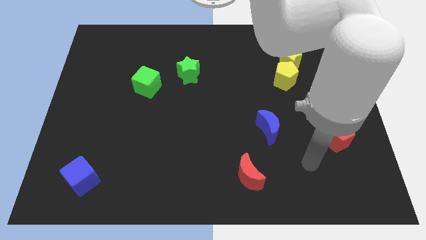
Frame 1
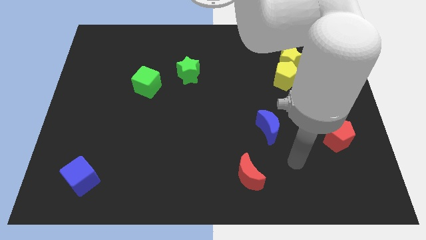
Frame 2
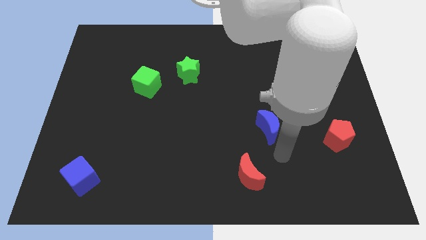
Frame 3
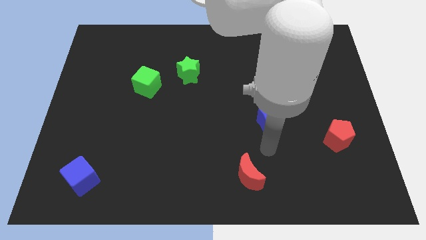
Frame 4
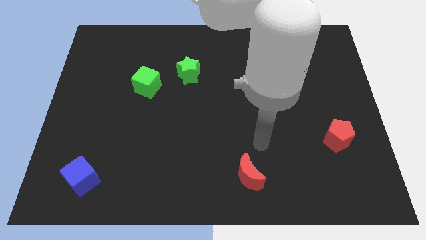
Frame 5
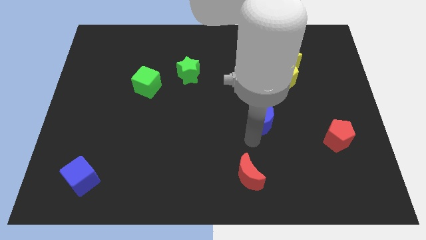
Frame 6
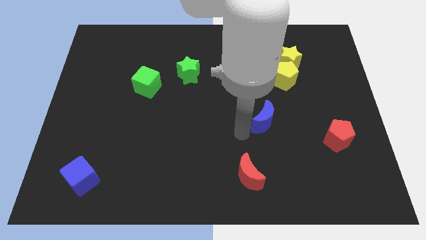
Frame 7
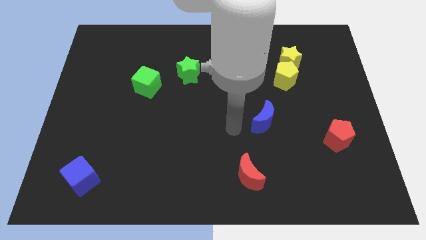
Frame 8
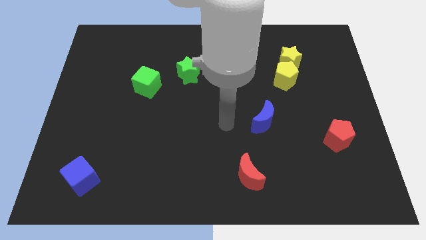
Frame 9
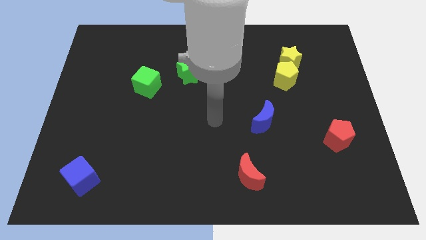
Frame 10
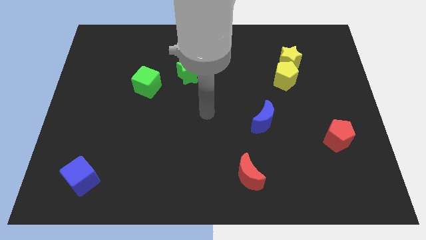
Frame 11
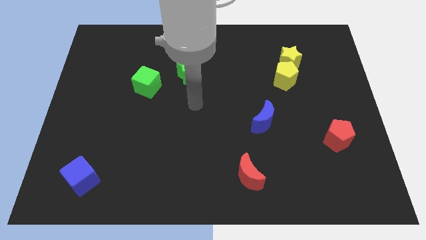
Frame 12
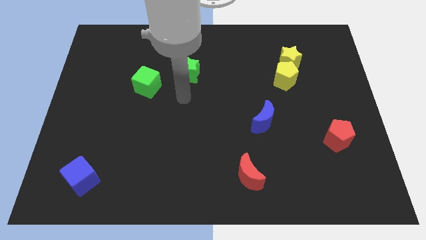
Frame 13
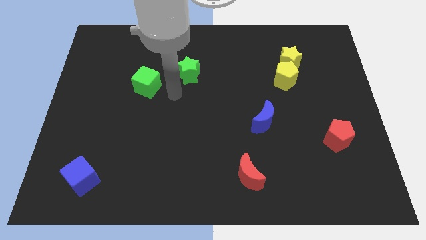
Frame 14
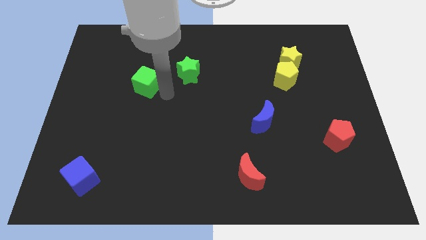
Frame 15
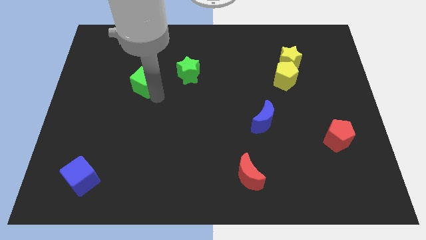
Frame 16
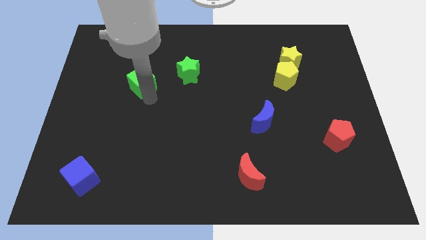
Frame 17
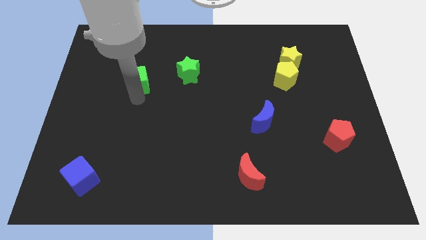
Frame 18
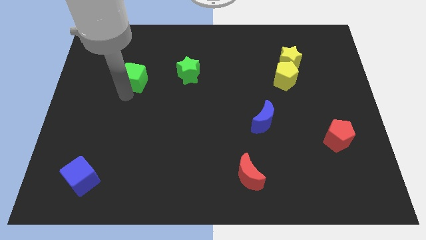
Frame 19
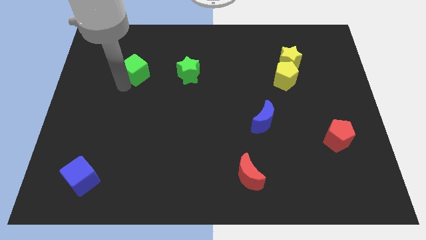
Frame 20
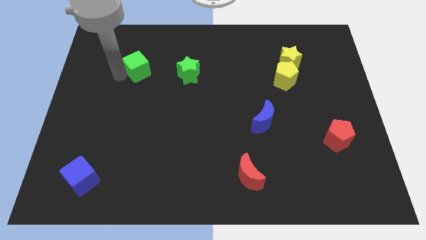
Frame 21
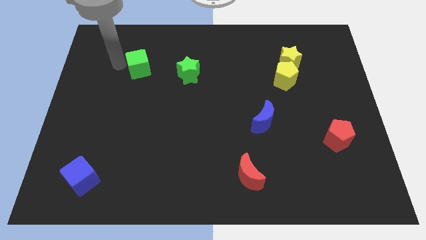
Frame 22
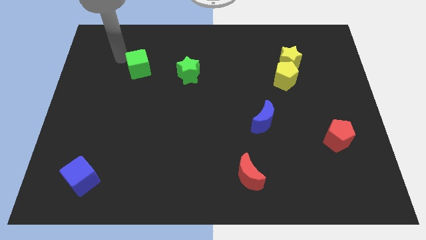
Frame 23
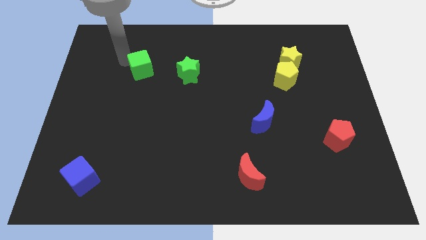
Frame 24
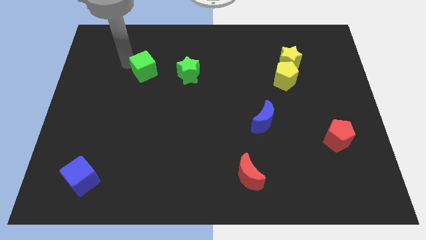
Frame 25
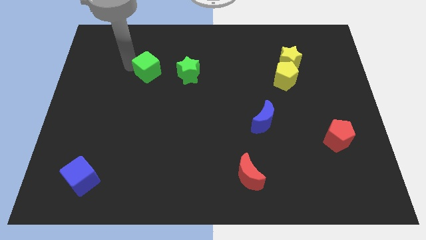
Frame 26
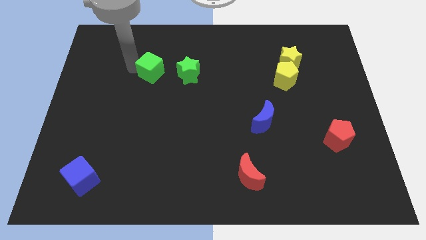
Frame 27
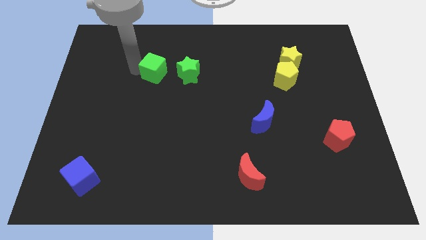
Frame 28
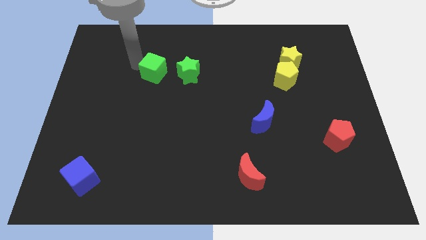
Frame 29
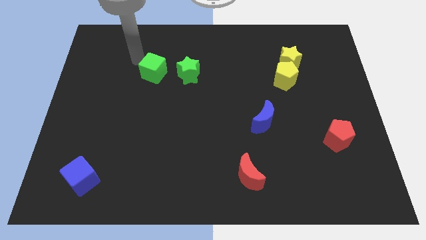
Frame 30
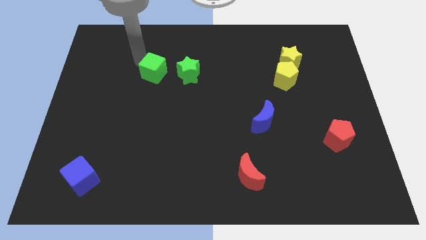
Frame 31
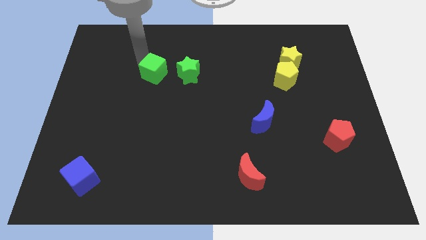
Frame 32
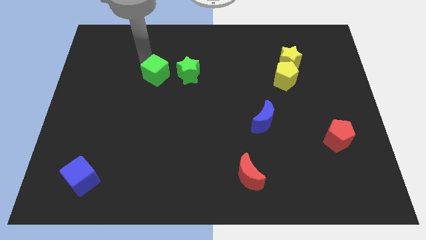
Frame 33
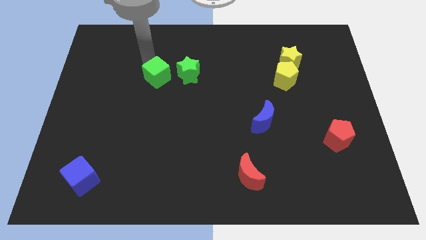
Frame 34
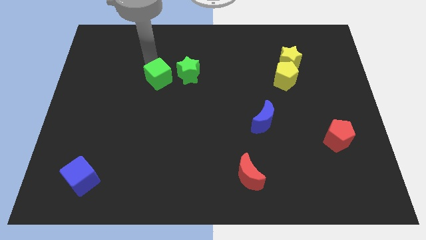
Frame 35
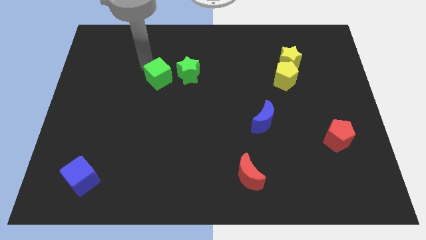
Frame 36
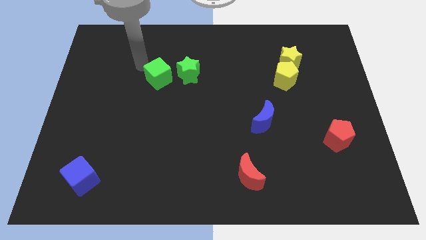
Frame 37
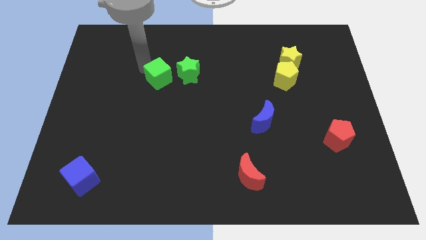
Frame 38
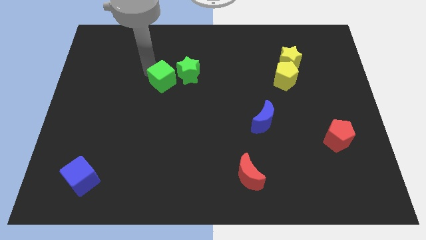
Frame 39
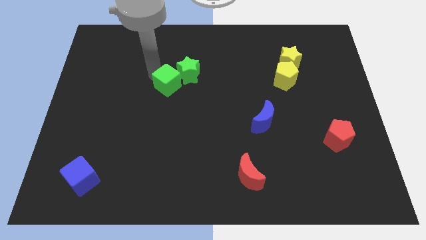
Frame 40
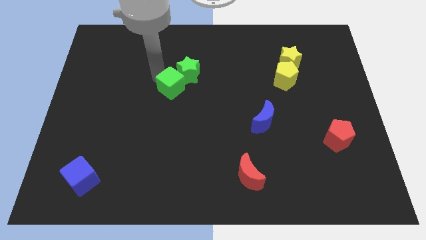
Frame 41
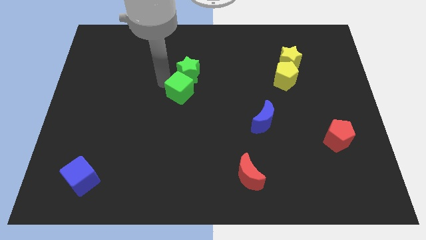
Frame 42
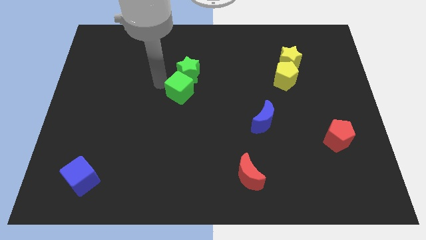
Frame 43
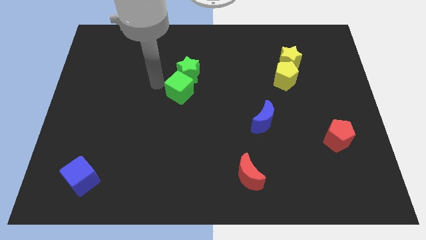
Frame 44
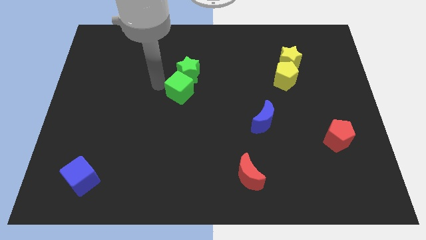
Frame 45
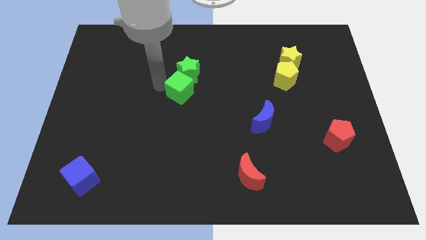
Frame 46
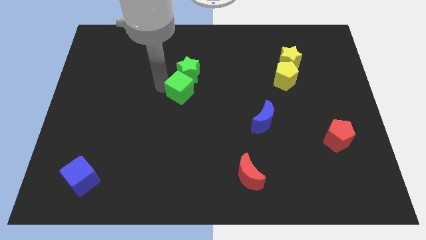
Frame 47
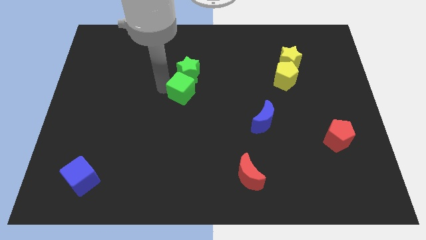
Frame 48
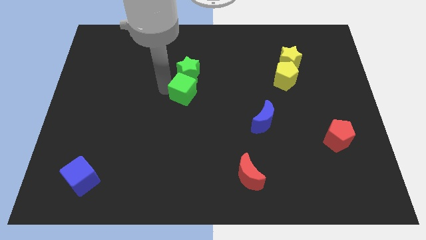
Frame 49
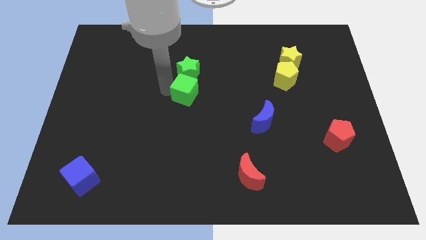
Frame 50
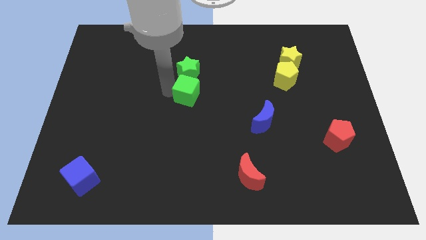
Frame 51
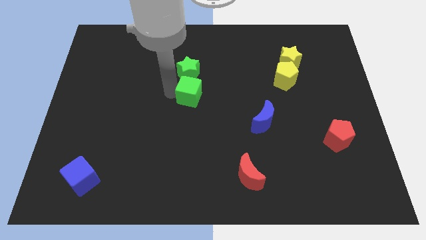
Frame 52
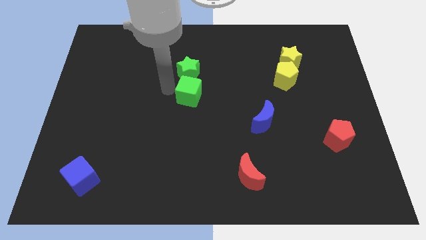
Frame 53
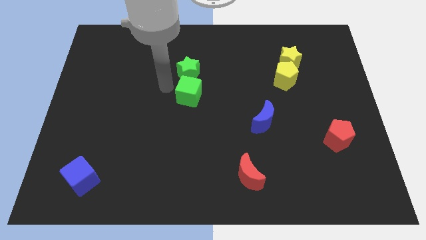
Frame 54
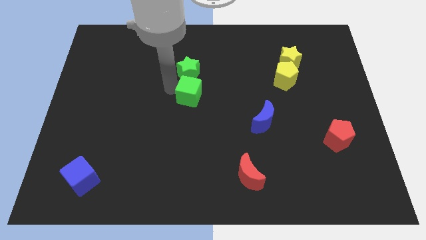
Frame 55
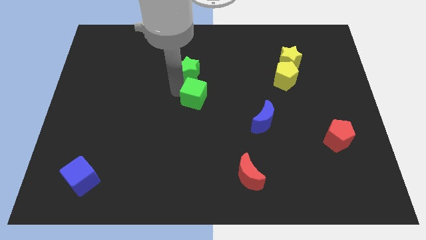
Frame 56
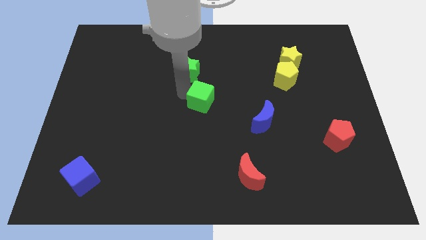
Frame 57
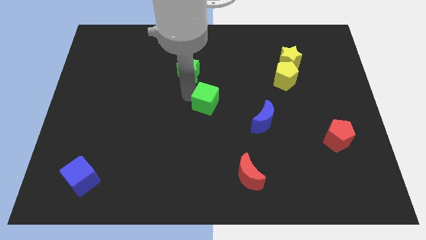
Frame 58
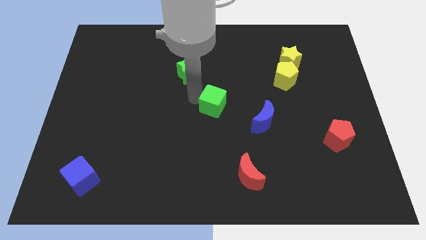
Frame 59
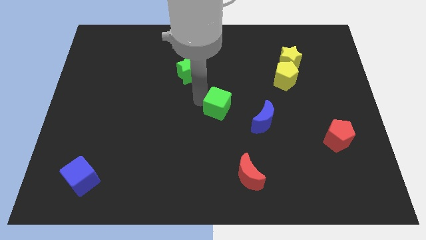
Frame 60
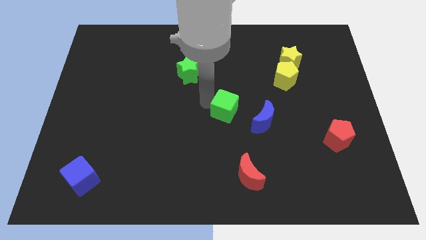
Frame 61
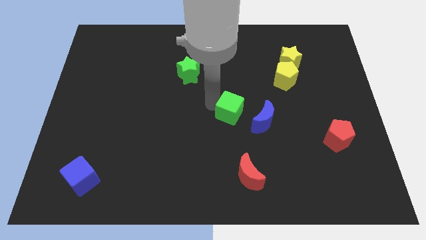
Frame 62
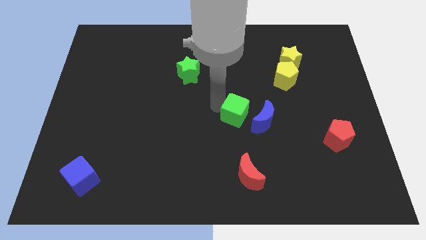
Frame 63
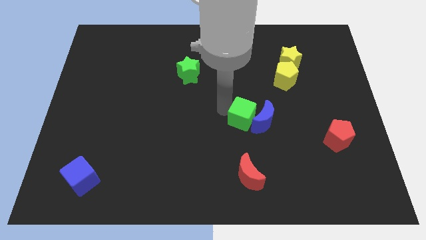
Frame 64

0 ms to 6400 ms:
slide the green cube close to the blue moon

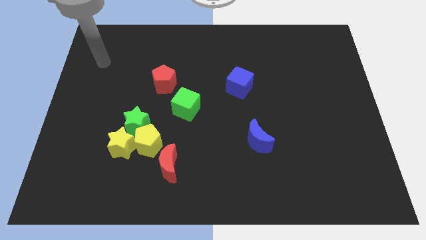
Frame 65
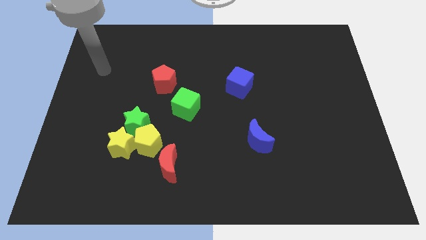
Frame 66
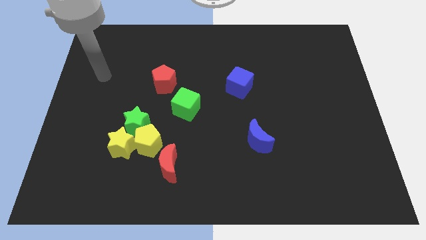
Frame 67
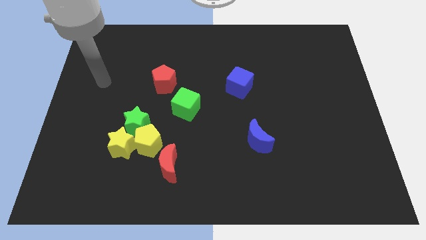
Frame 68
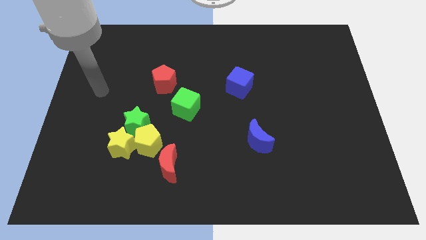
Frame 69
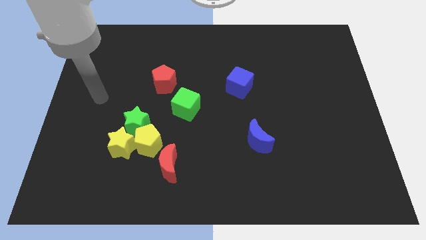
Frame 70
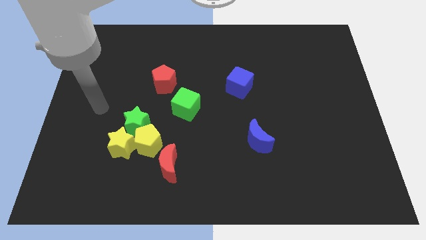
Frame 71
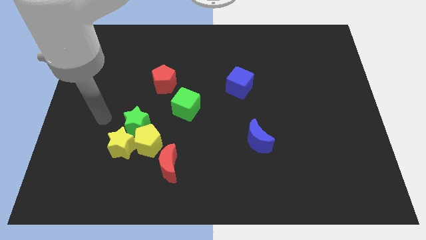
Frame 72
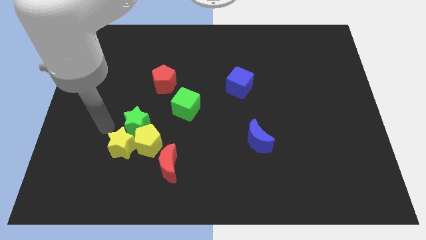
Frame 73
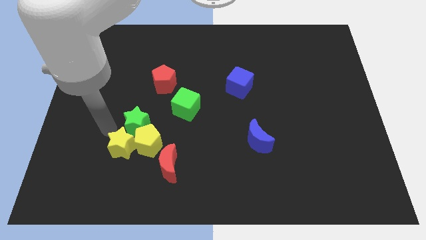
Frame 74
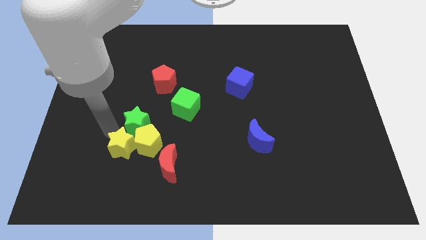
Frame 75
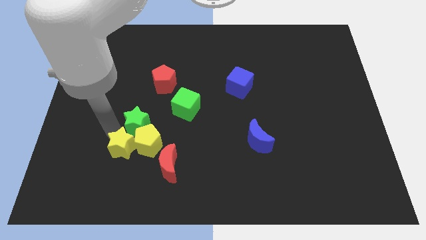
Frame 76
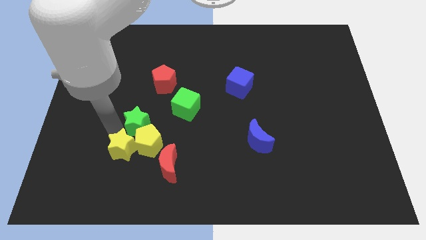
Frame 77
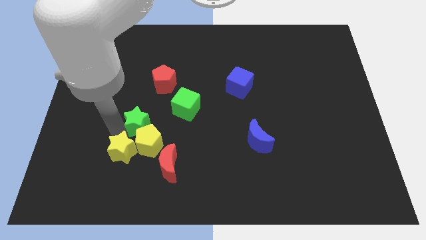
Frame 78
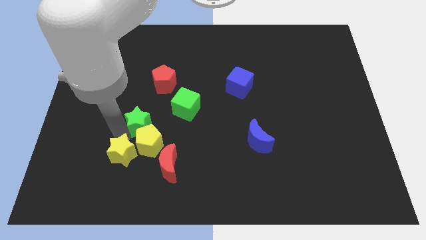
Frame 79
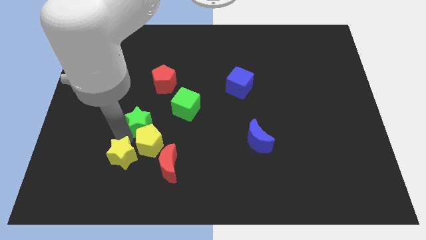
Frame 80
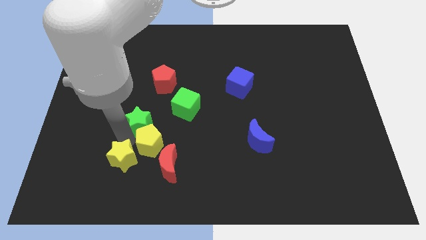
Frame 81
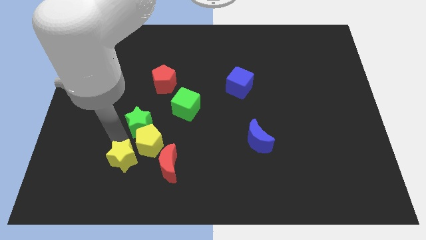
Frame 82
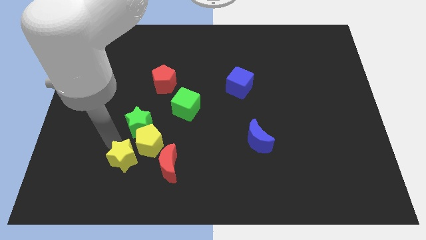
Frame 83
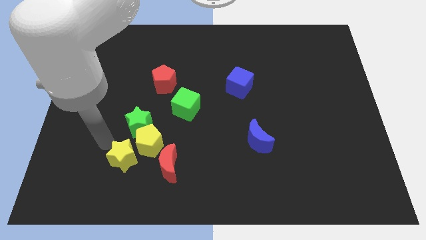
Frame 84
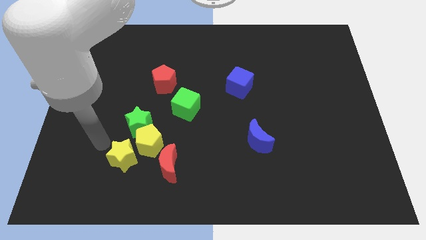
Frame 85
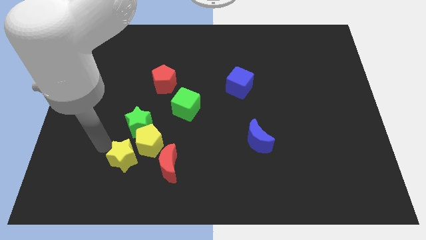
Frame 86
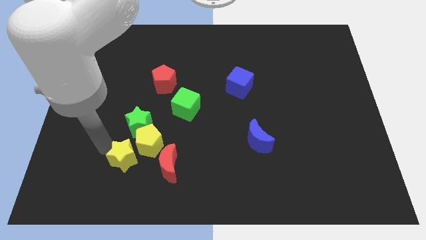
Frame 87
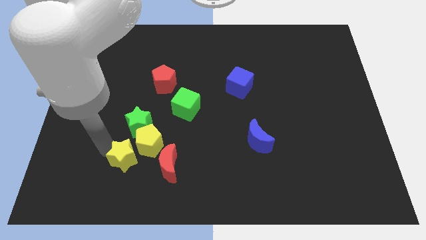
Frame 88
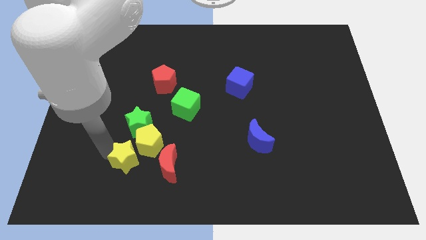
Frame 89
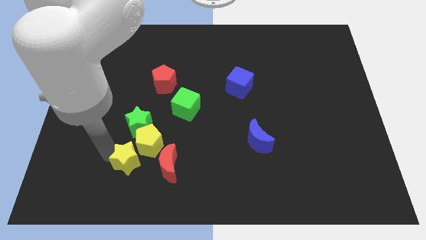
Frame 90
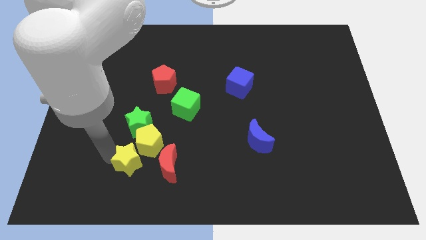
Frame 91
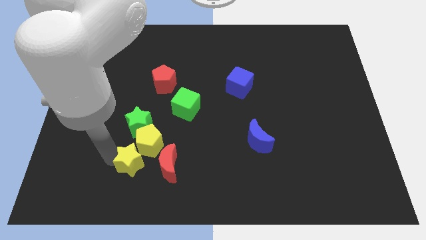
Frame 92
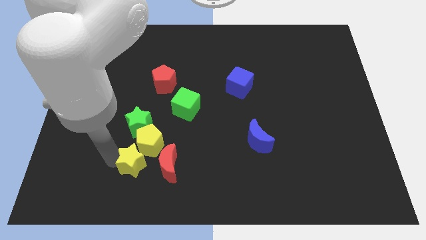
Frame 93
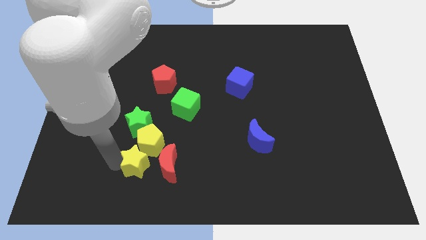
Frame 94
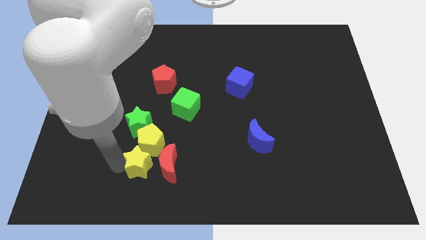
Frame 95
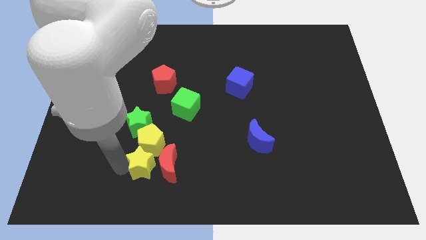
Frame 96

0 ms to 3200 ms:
slide the yellow star next to the red moon
